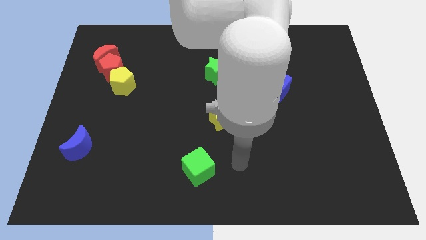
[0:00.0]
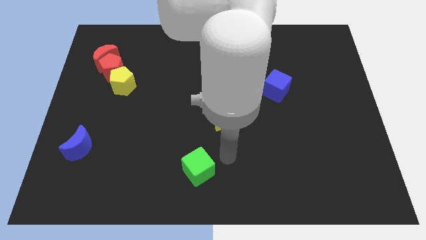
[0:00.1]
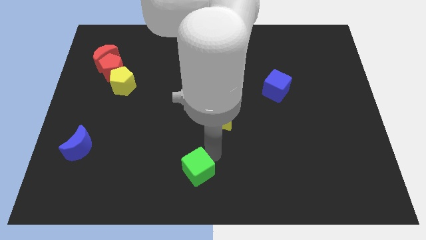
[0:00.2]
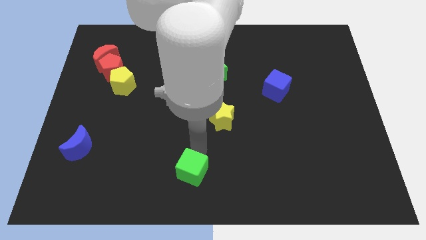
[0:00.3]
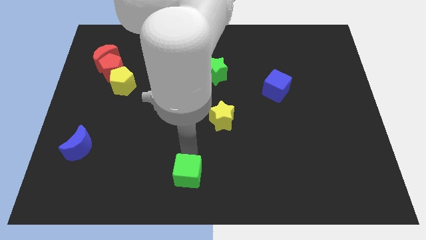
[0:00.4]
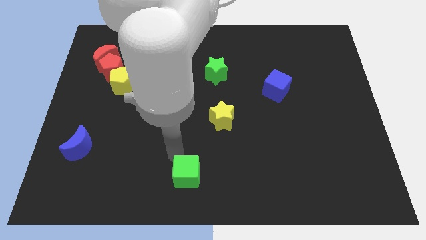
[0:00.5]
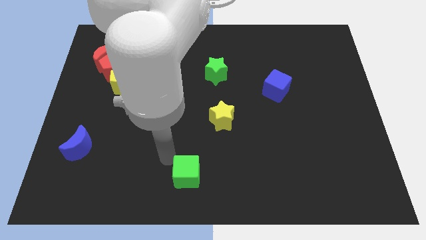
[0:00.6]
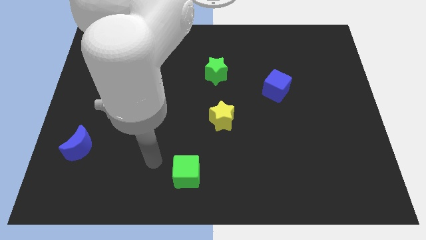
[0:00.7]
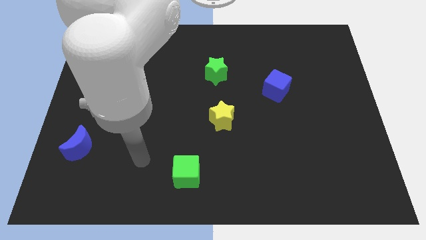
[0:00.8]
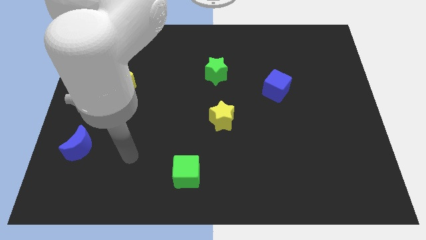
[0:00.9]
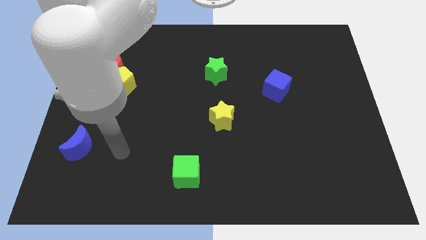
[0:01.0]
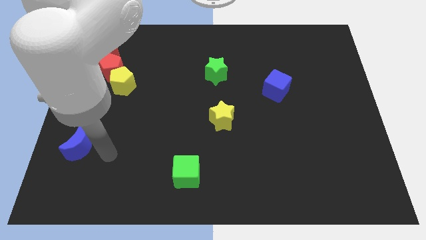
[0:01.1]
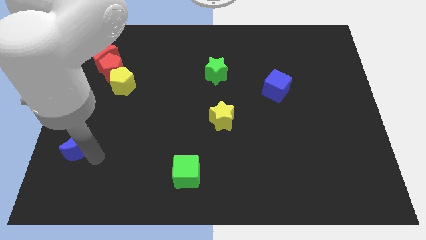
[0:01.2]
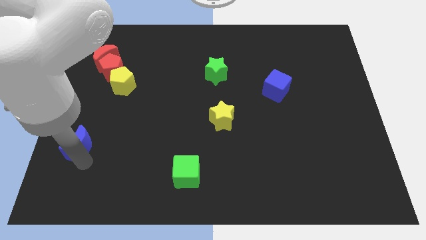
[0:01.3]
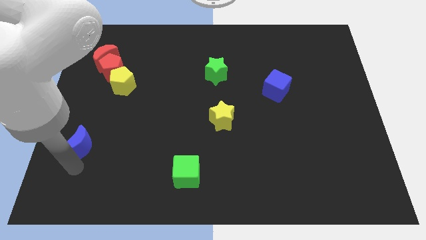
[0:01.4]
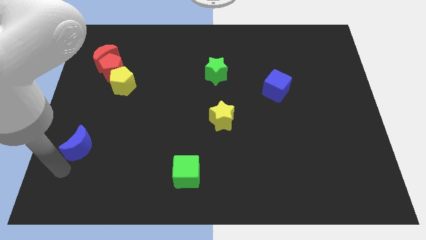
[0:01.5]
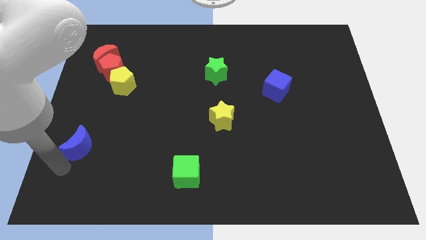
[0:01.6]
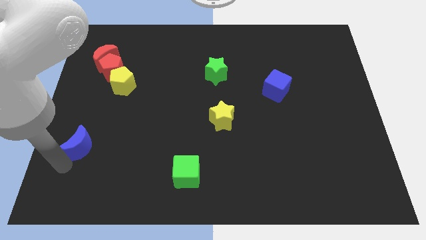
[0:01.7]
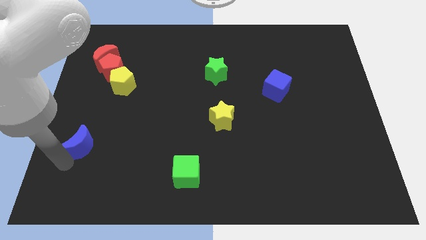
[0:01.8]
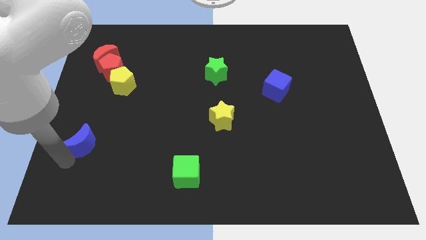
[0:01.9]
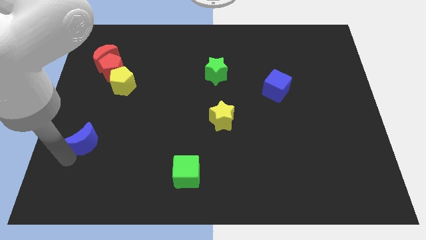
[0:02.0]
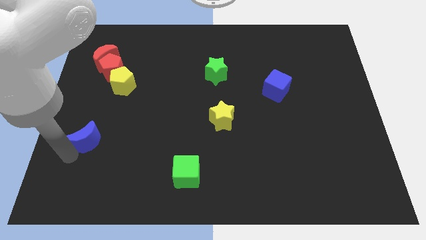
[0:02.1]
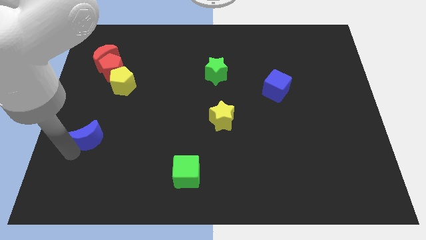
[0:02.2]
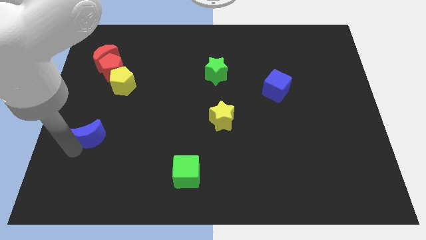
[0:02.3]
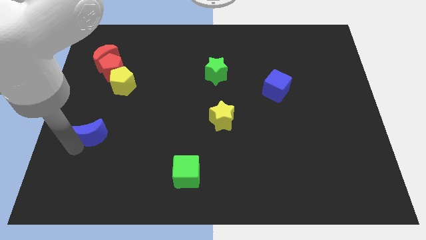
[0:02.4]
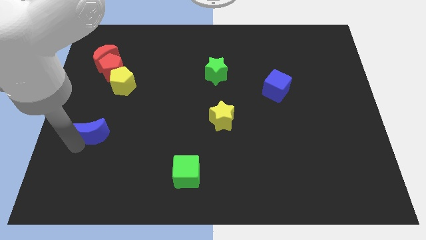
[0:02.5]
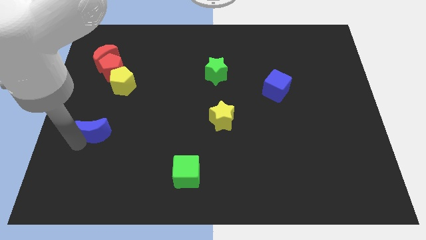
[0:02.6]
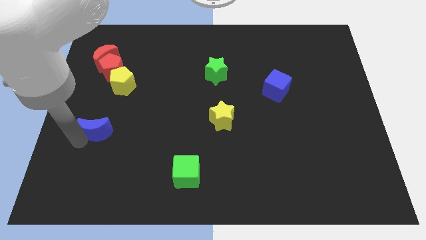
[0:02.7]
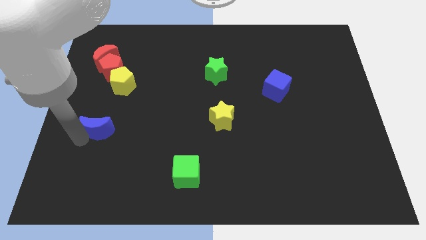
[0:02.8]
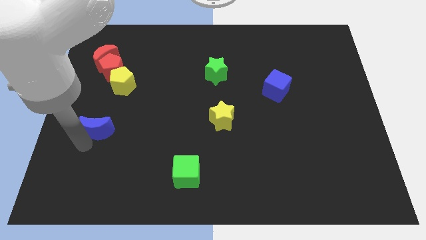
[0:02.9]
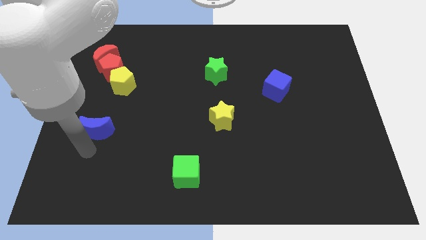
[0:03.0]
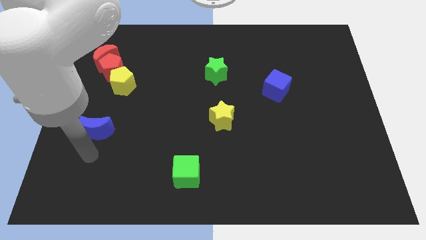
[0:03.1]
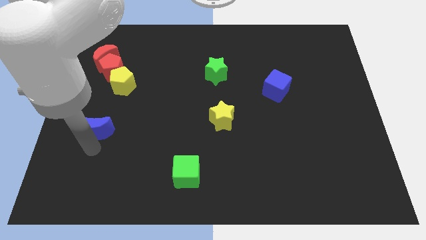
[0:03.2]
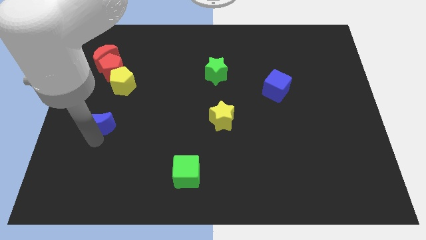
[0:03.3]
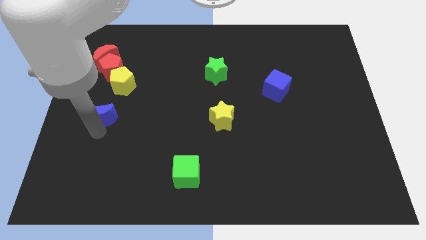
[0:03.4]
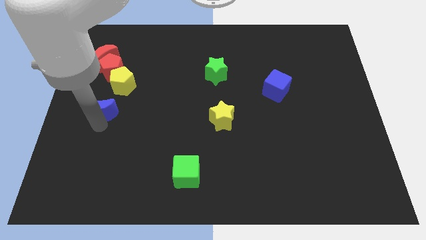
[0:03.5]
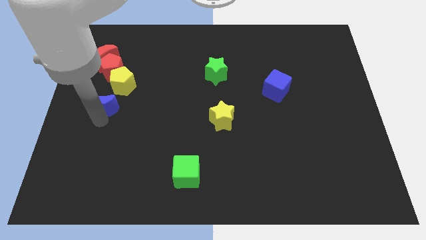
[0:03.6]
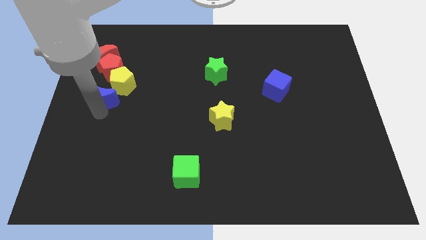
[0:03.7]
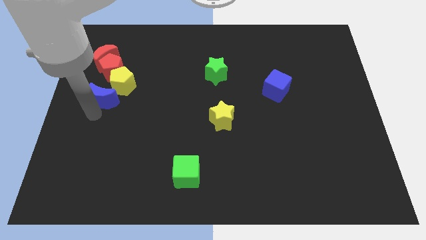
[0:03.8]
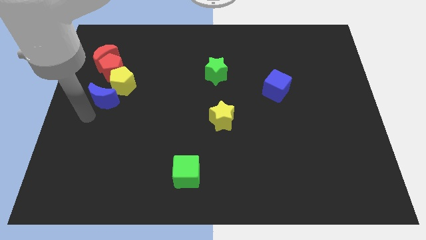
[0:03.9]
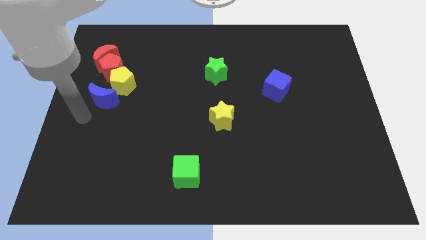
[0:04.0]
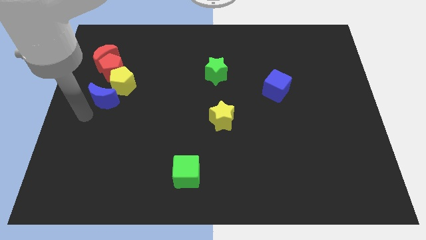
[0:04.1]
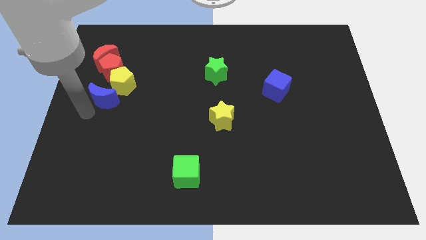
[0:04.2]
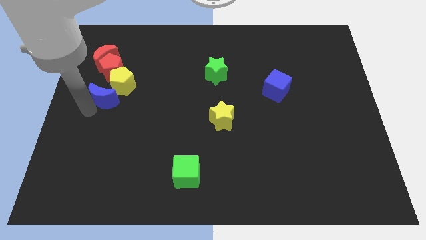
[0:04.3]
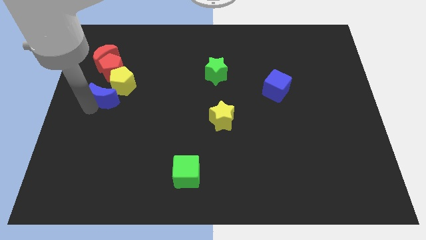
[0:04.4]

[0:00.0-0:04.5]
put the blue moon close to the yellow pentagon

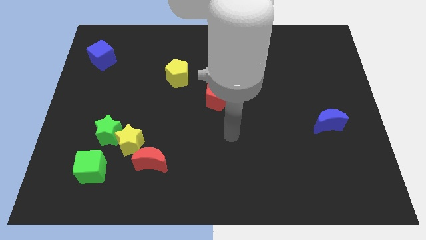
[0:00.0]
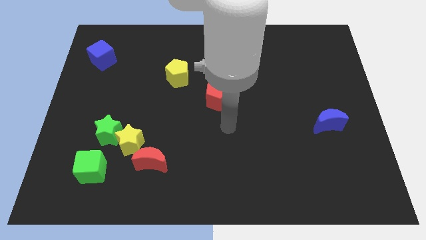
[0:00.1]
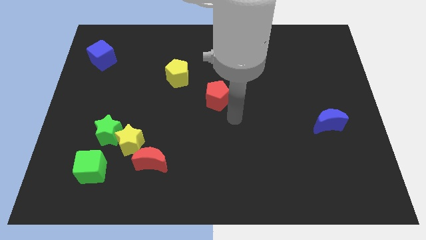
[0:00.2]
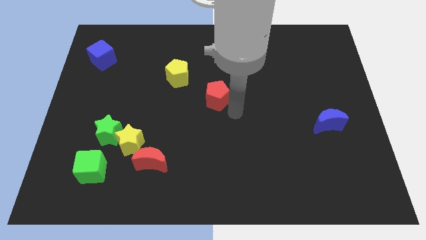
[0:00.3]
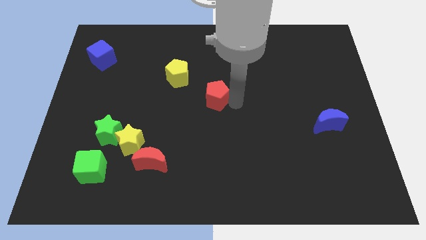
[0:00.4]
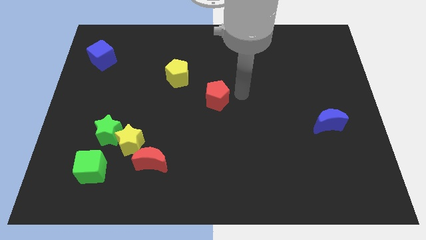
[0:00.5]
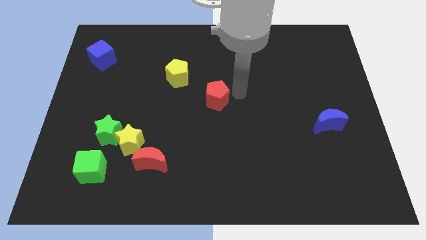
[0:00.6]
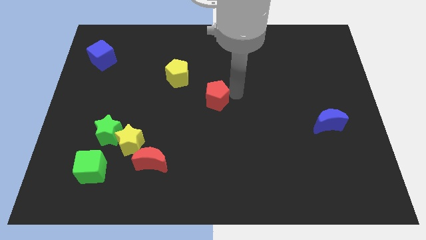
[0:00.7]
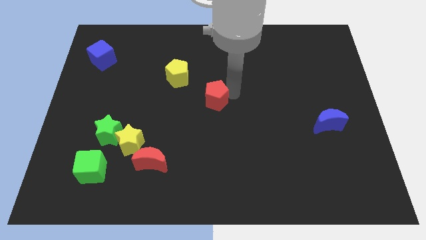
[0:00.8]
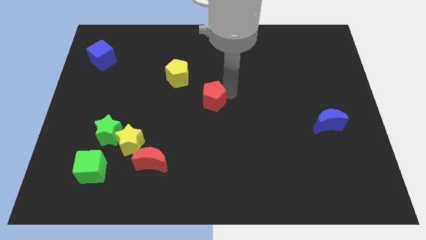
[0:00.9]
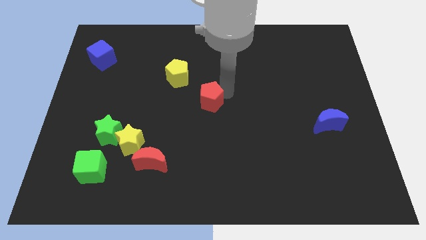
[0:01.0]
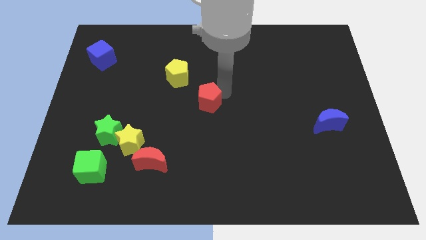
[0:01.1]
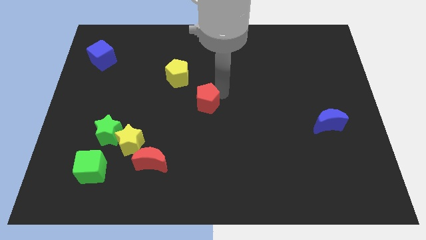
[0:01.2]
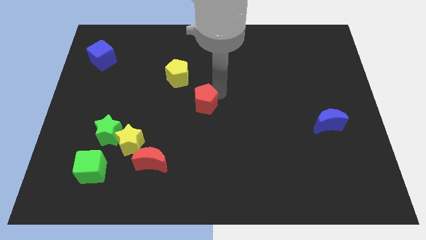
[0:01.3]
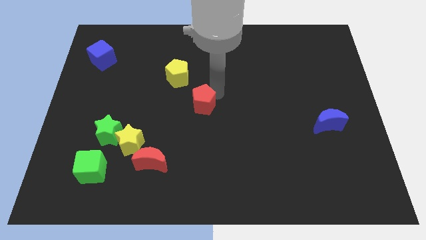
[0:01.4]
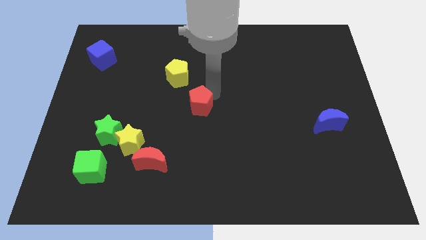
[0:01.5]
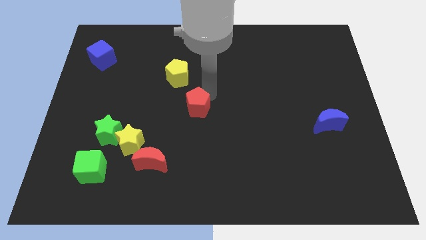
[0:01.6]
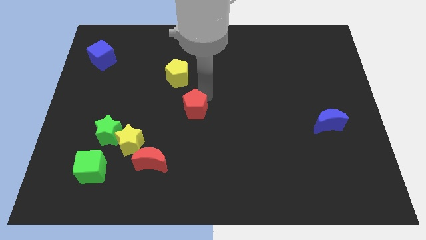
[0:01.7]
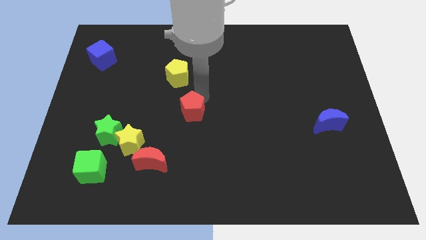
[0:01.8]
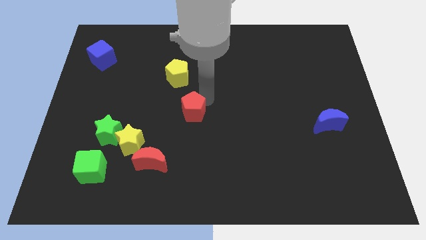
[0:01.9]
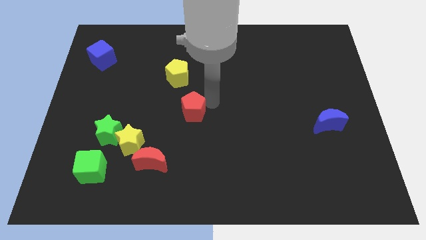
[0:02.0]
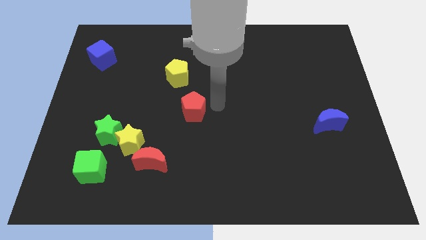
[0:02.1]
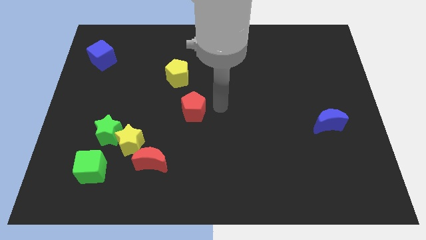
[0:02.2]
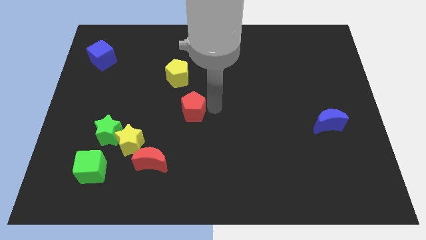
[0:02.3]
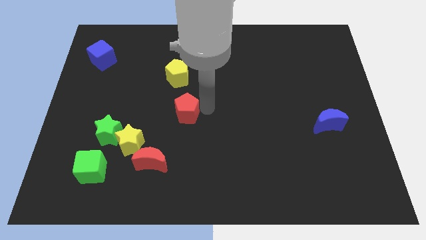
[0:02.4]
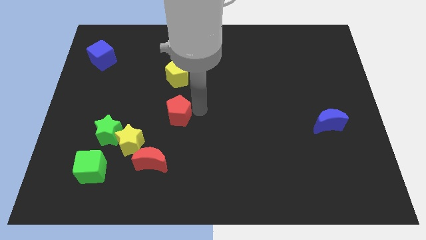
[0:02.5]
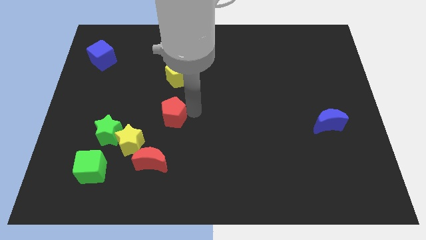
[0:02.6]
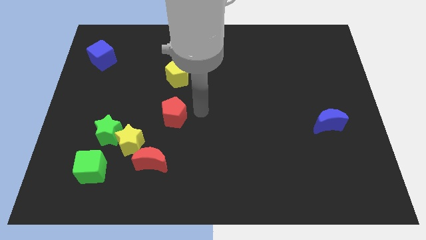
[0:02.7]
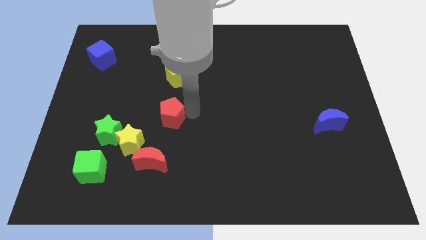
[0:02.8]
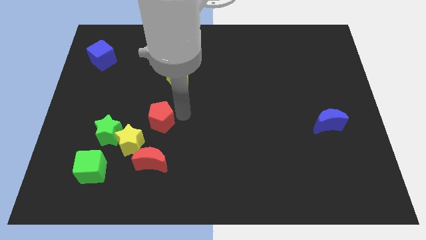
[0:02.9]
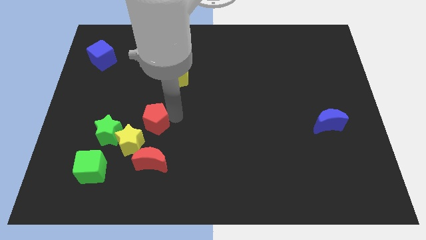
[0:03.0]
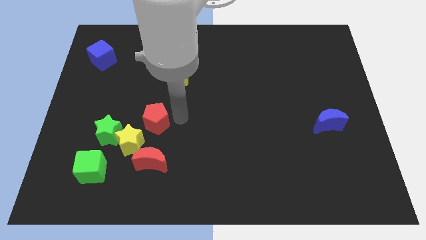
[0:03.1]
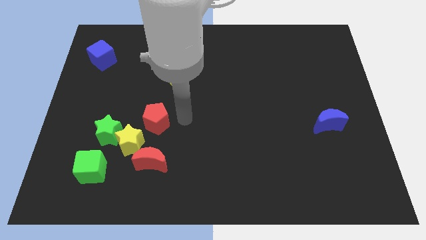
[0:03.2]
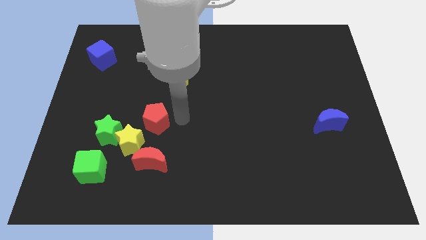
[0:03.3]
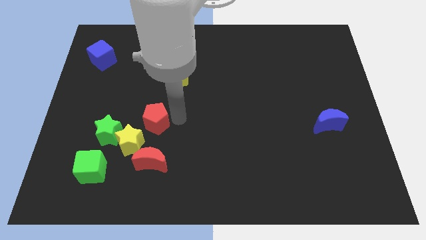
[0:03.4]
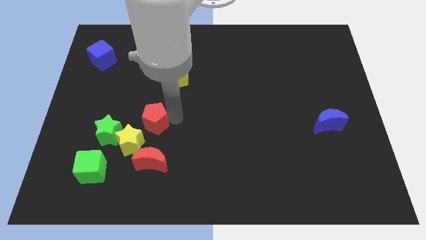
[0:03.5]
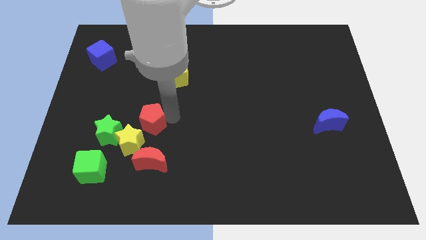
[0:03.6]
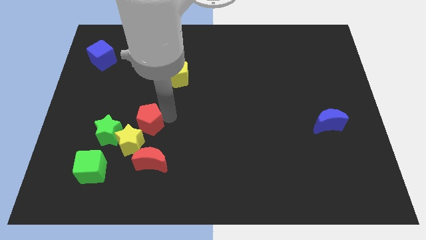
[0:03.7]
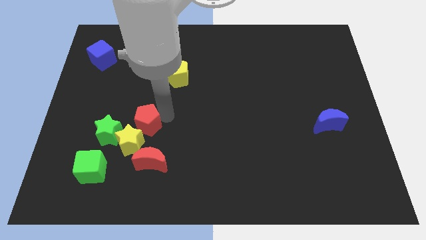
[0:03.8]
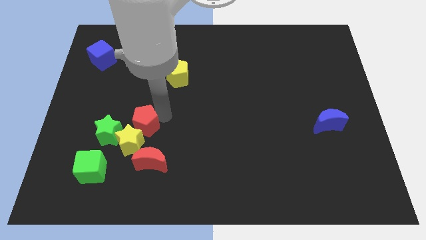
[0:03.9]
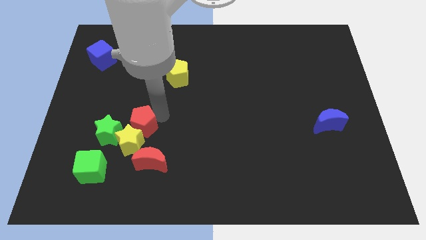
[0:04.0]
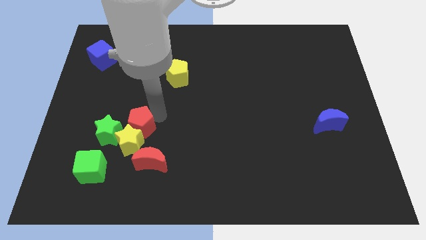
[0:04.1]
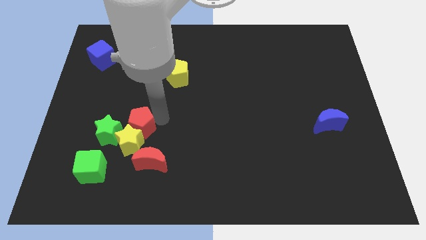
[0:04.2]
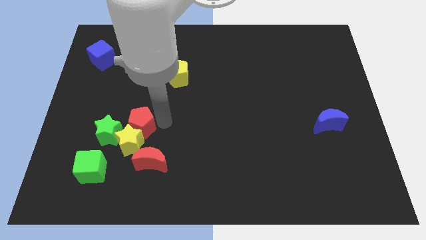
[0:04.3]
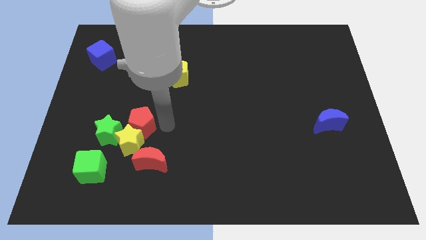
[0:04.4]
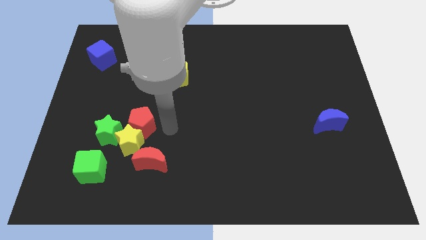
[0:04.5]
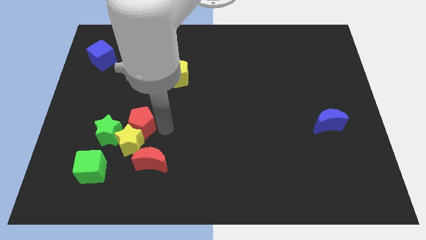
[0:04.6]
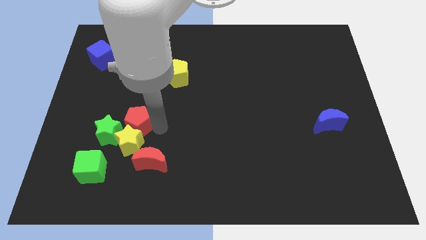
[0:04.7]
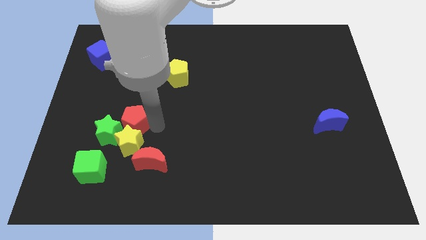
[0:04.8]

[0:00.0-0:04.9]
put the red pentagon next to the green star
